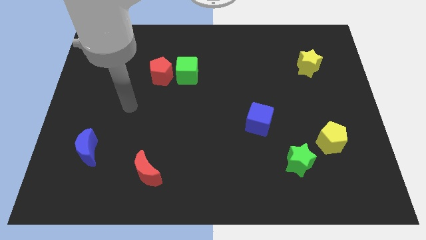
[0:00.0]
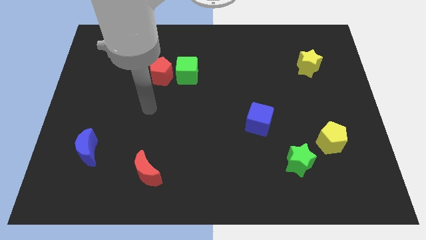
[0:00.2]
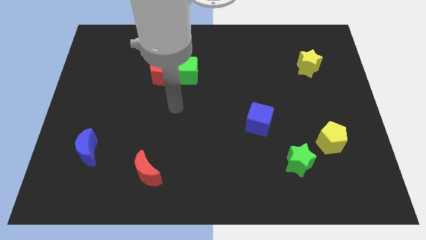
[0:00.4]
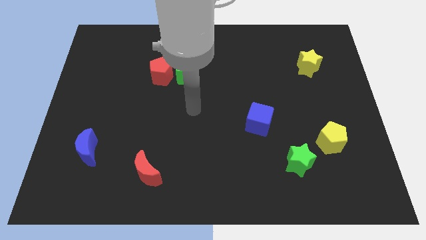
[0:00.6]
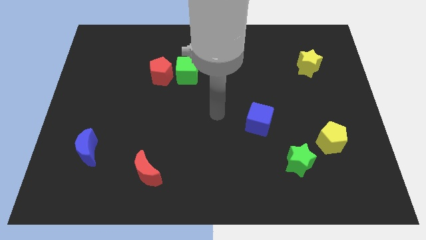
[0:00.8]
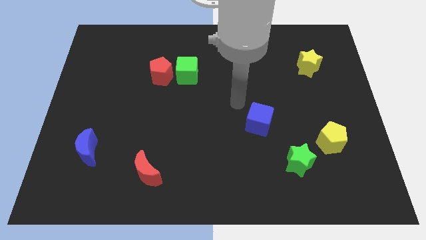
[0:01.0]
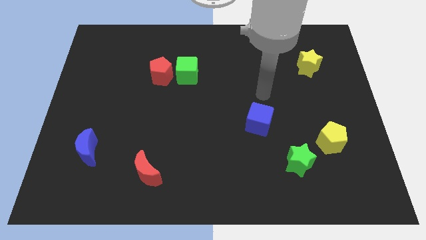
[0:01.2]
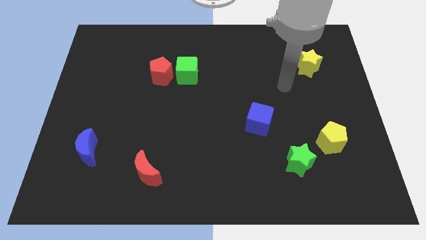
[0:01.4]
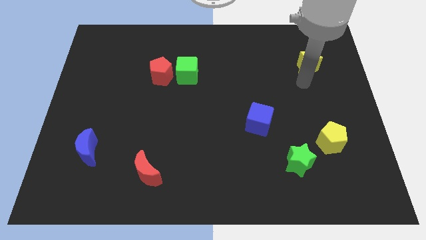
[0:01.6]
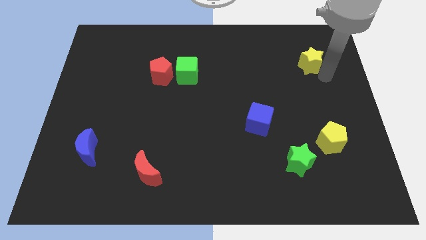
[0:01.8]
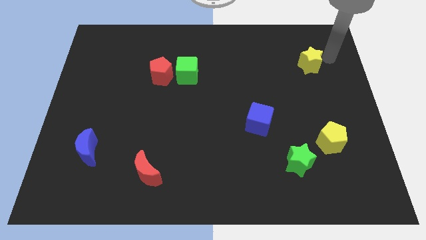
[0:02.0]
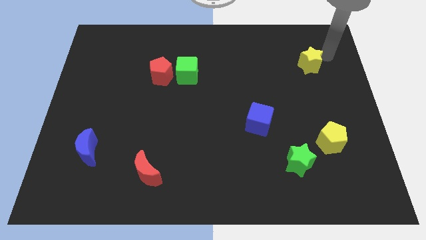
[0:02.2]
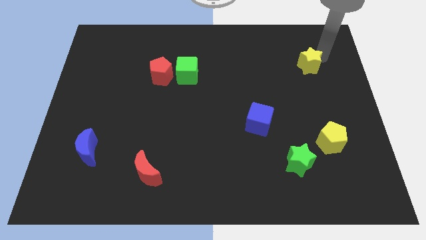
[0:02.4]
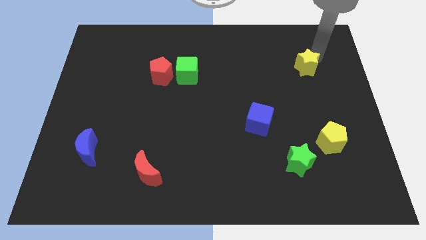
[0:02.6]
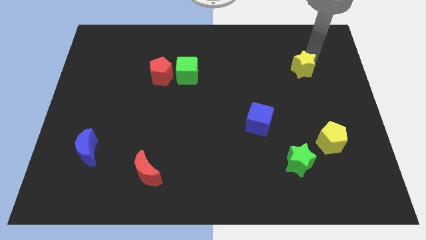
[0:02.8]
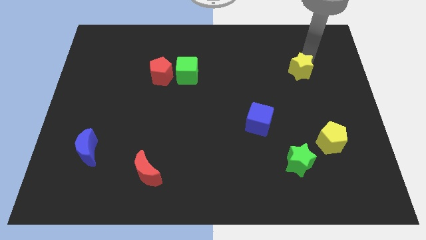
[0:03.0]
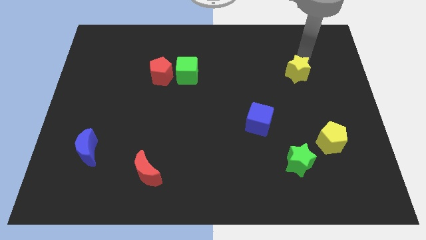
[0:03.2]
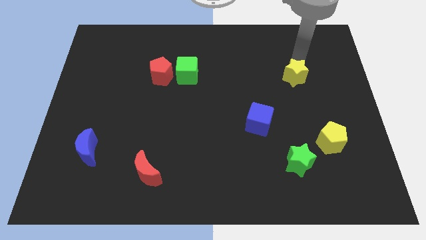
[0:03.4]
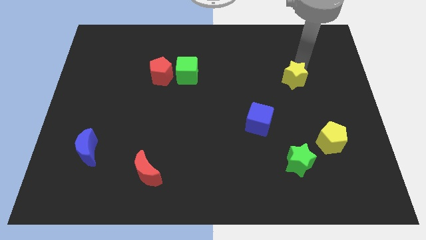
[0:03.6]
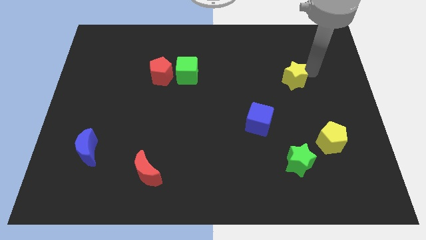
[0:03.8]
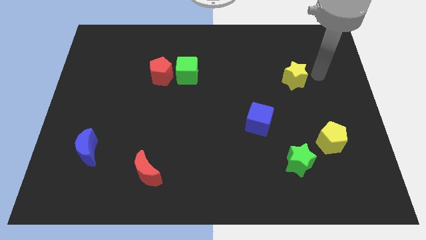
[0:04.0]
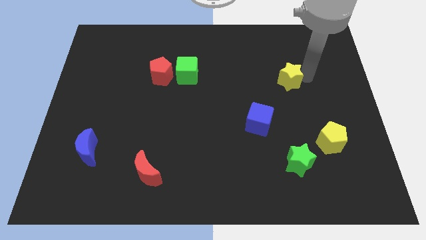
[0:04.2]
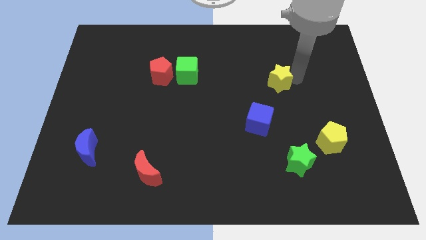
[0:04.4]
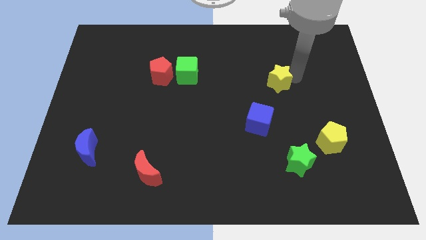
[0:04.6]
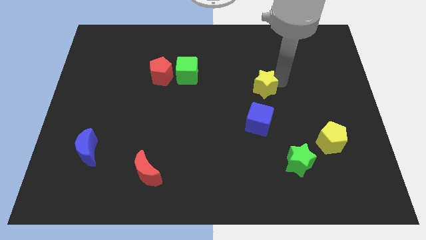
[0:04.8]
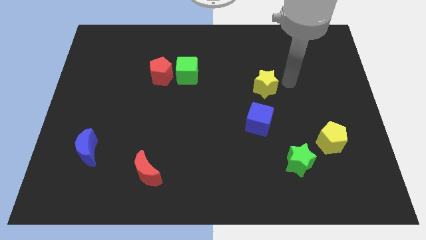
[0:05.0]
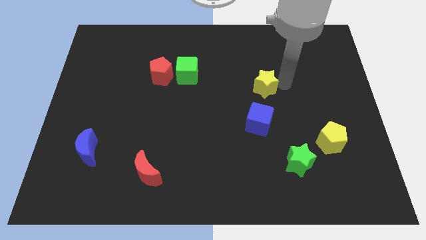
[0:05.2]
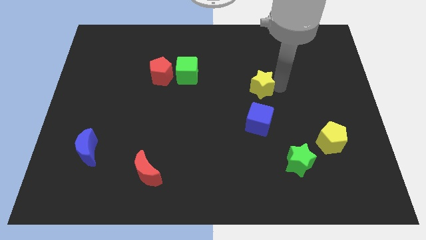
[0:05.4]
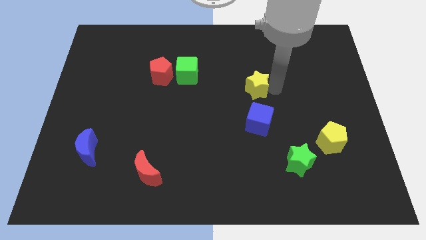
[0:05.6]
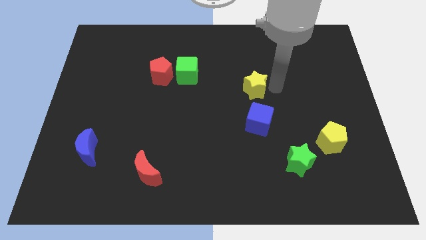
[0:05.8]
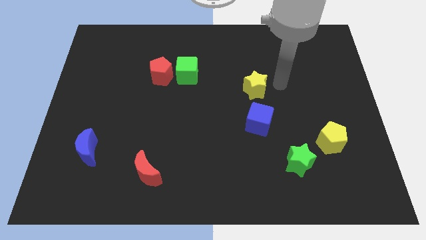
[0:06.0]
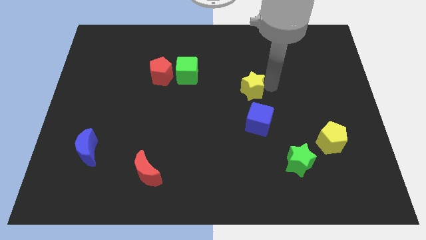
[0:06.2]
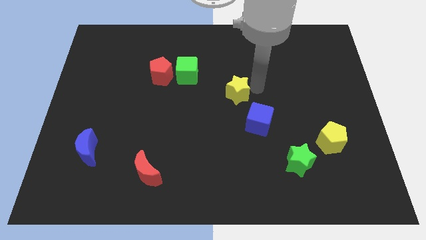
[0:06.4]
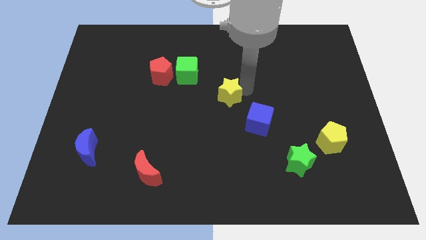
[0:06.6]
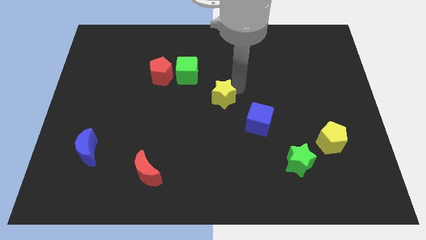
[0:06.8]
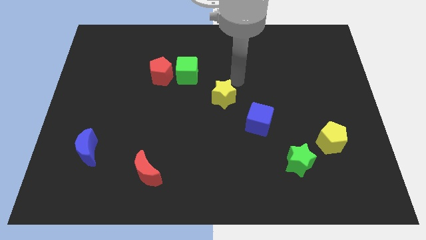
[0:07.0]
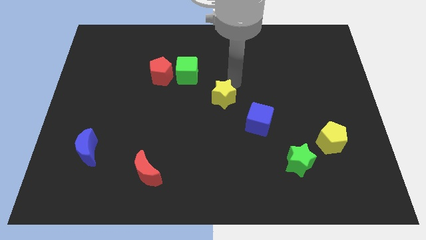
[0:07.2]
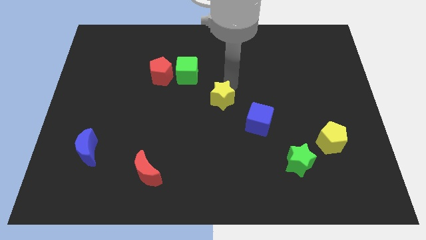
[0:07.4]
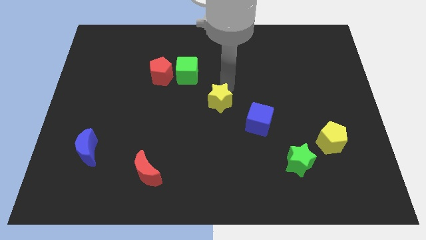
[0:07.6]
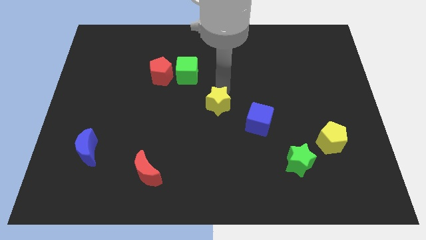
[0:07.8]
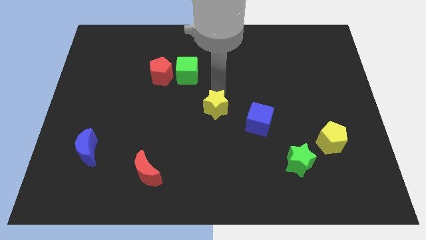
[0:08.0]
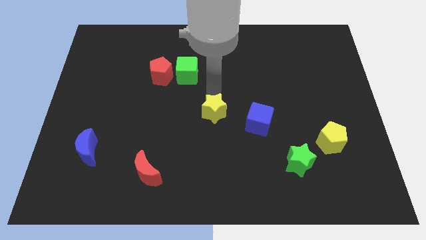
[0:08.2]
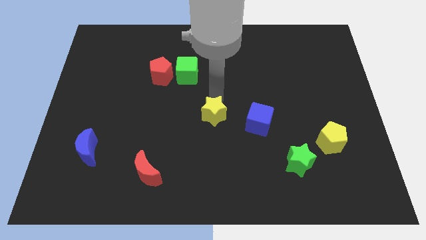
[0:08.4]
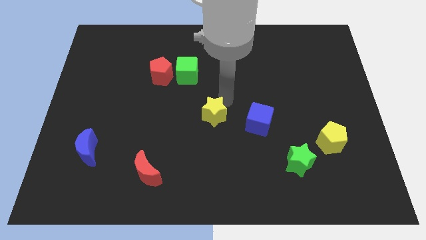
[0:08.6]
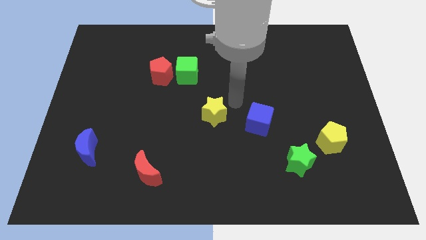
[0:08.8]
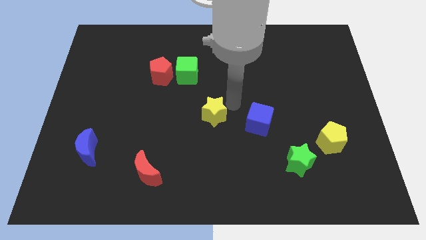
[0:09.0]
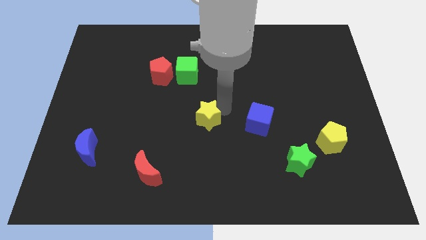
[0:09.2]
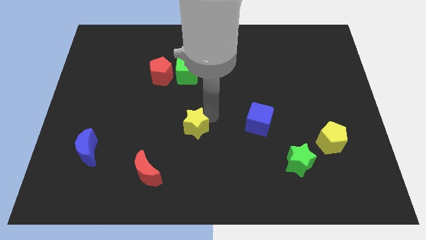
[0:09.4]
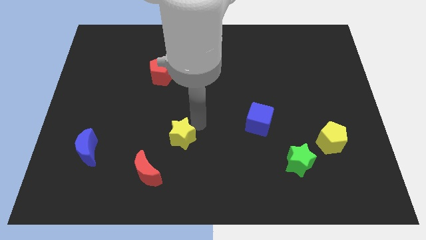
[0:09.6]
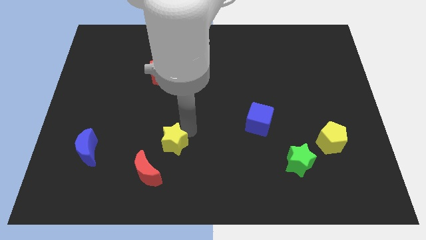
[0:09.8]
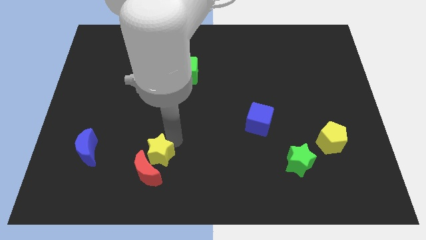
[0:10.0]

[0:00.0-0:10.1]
slide the yellow star towards the red moon
